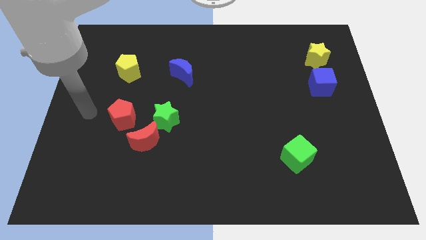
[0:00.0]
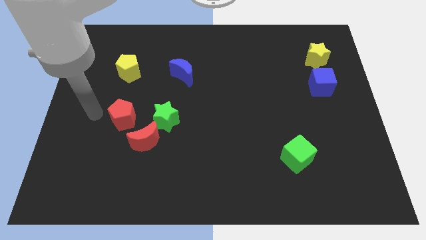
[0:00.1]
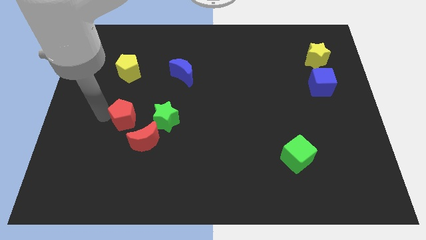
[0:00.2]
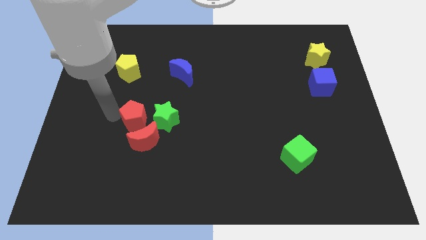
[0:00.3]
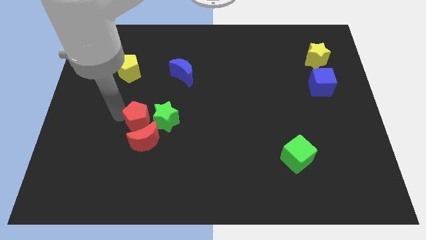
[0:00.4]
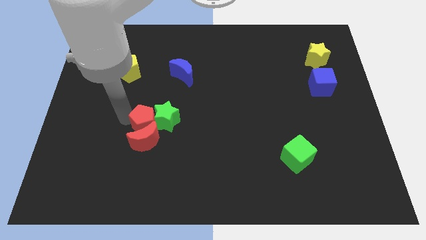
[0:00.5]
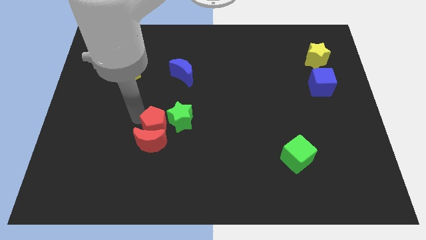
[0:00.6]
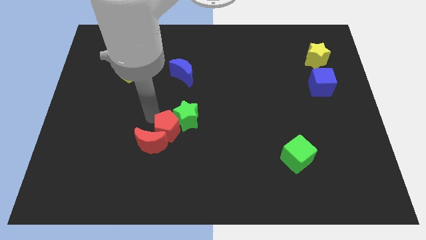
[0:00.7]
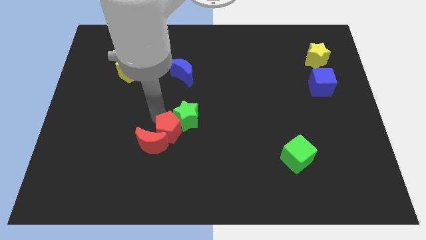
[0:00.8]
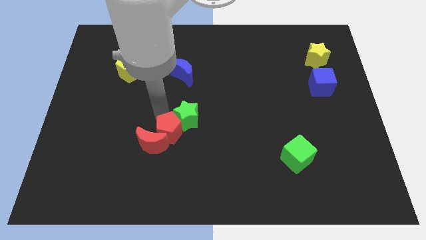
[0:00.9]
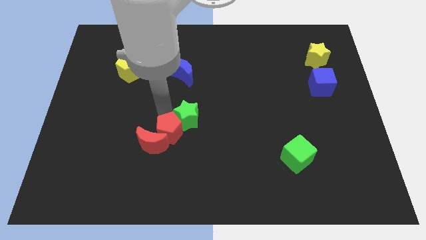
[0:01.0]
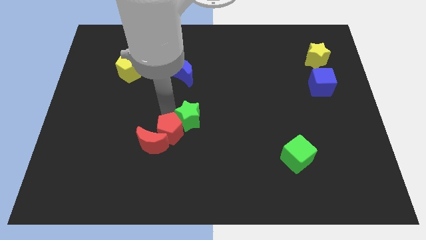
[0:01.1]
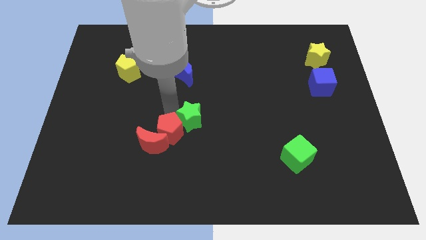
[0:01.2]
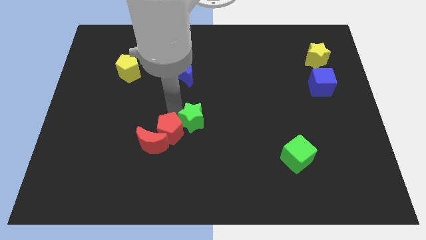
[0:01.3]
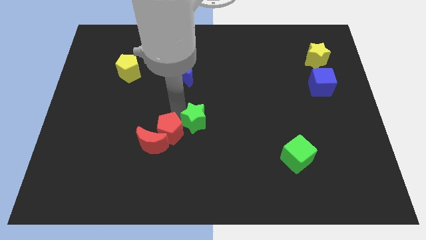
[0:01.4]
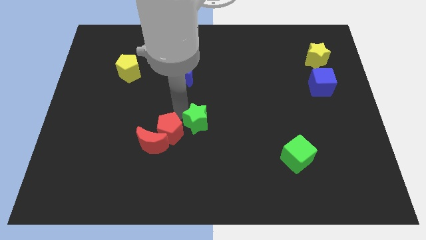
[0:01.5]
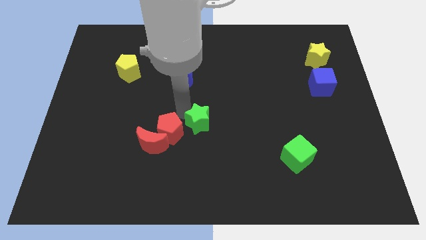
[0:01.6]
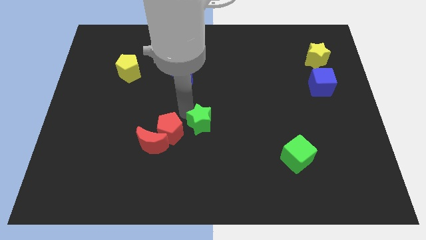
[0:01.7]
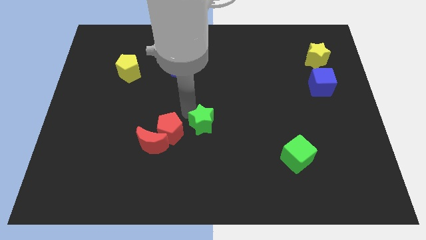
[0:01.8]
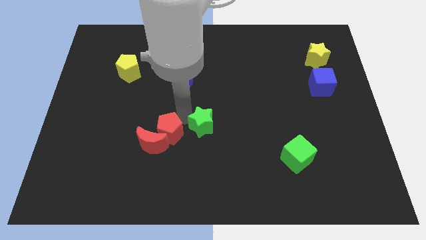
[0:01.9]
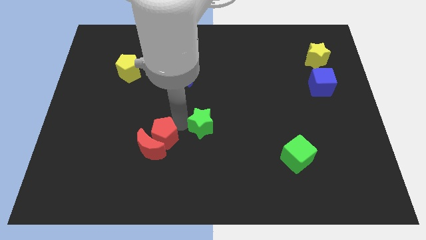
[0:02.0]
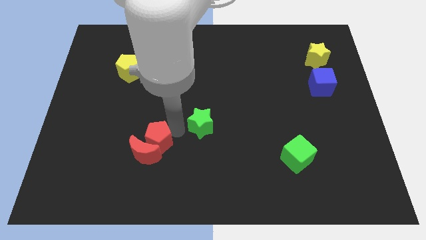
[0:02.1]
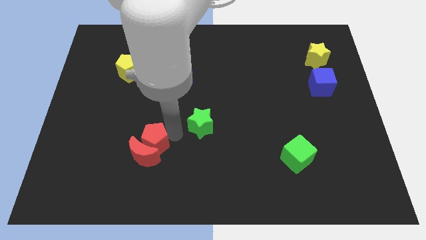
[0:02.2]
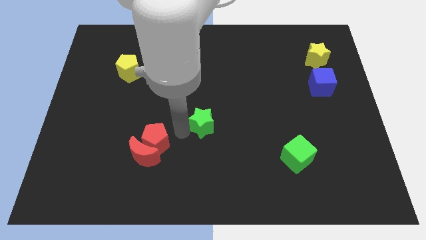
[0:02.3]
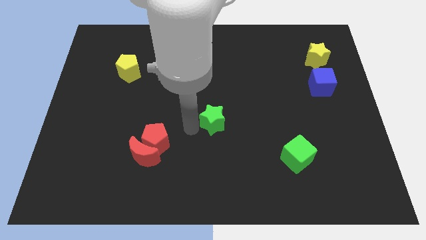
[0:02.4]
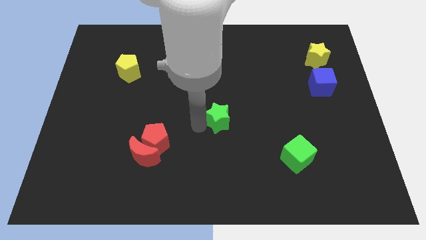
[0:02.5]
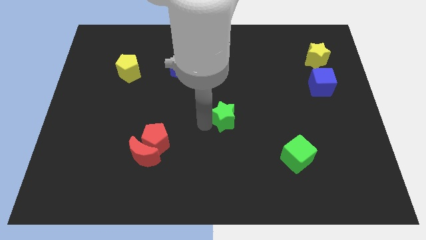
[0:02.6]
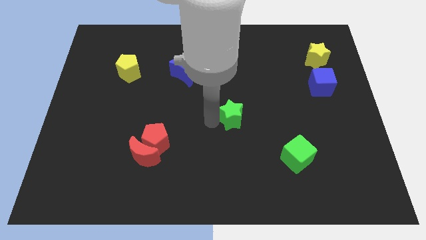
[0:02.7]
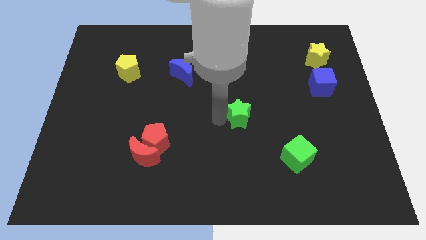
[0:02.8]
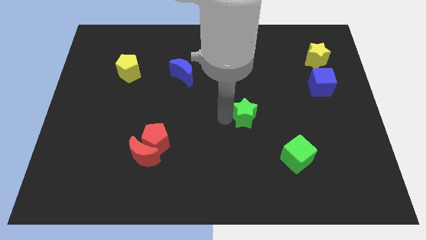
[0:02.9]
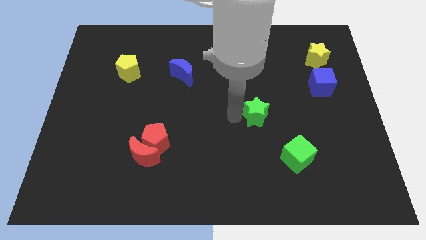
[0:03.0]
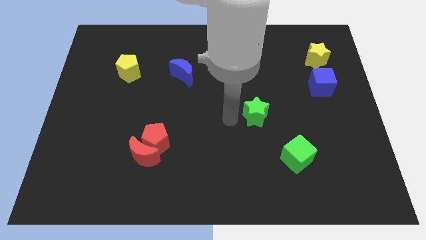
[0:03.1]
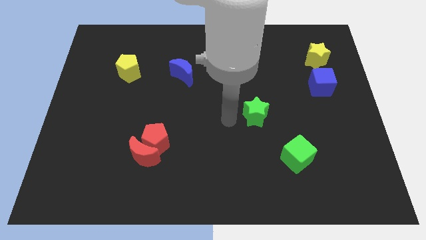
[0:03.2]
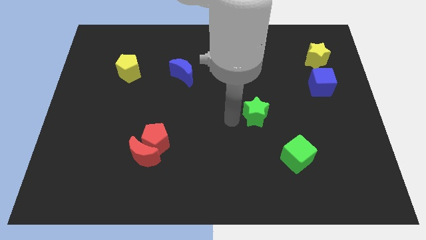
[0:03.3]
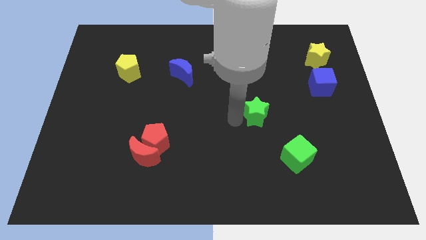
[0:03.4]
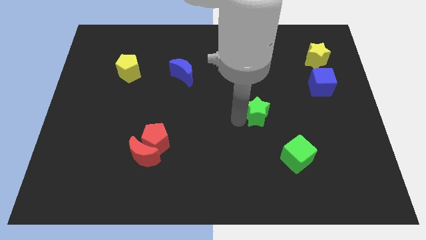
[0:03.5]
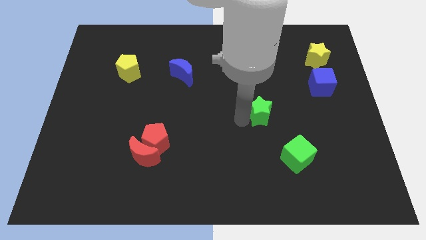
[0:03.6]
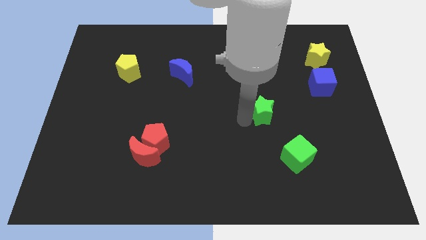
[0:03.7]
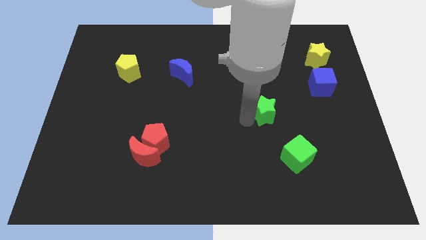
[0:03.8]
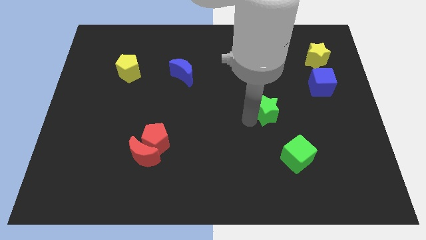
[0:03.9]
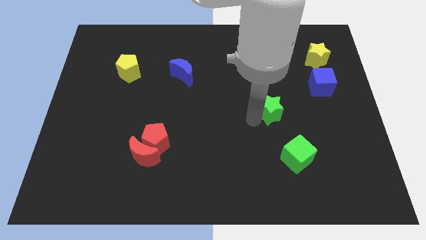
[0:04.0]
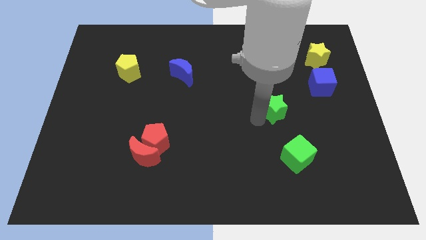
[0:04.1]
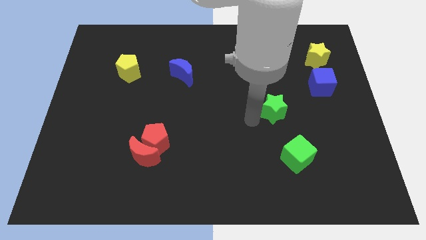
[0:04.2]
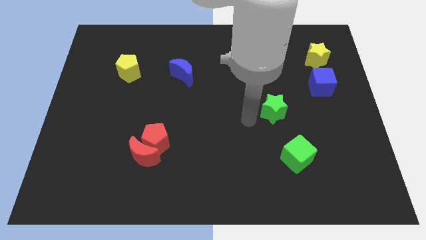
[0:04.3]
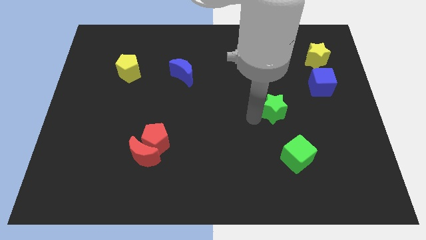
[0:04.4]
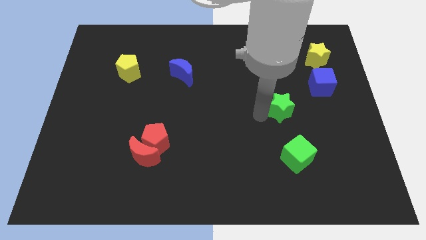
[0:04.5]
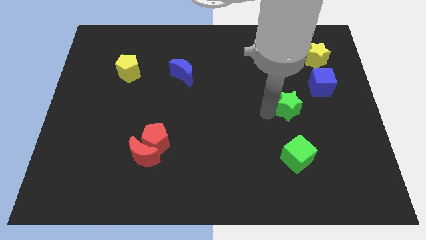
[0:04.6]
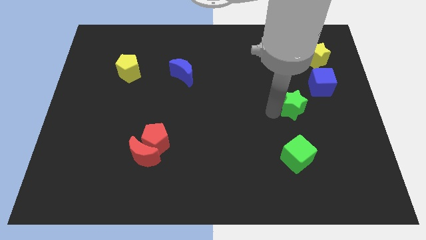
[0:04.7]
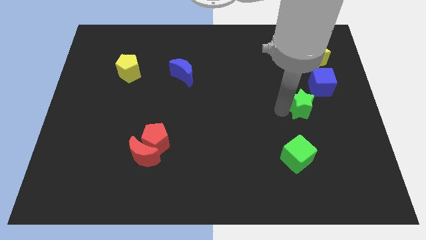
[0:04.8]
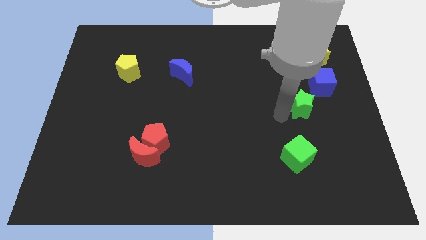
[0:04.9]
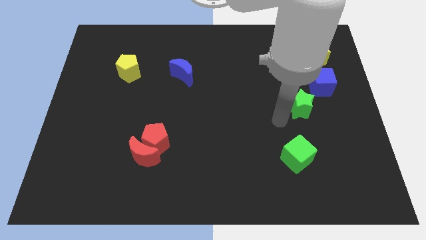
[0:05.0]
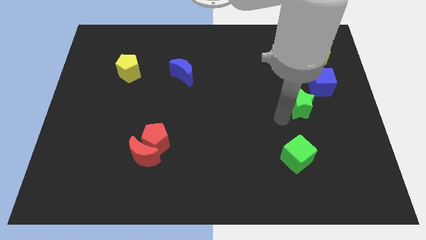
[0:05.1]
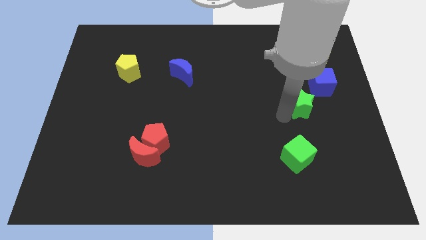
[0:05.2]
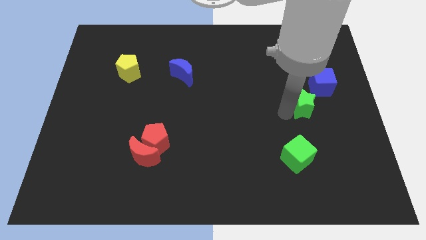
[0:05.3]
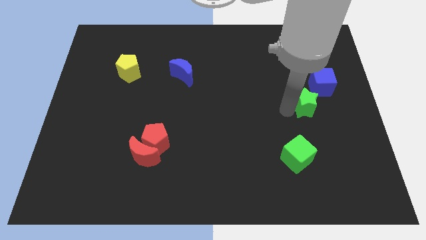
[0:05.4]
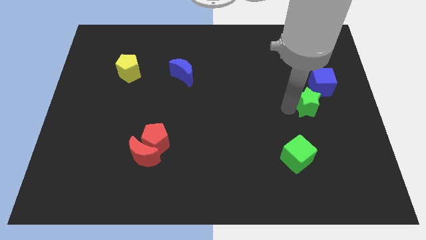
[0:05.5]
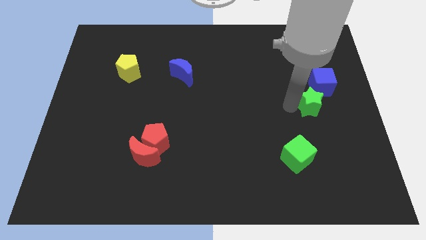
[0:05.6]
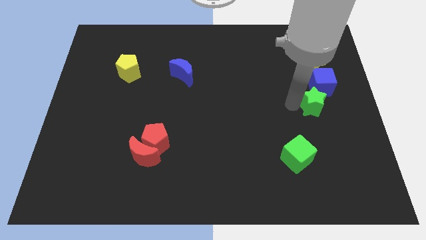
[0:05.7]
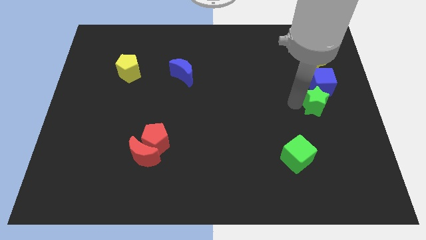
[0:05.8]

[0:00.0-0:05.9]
slide the green star to the bottom side of the yellow star

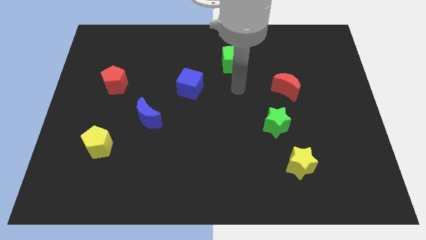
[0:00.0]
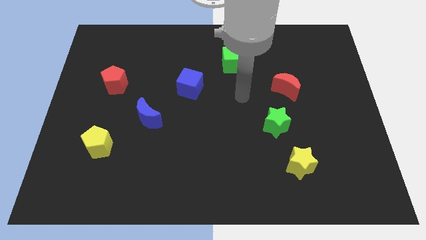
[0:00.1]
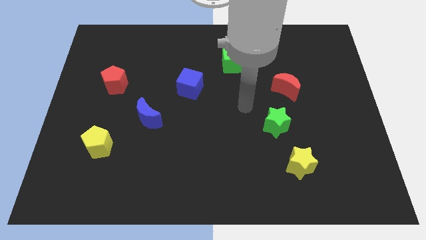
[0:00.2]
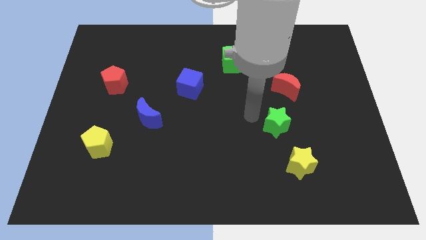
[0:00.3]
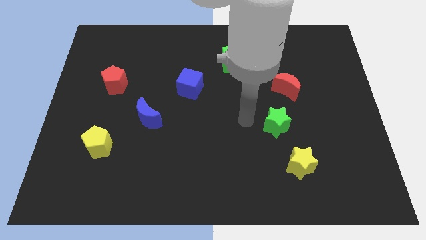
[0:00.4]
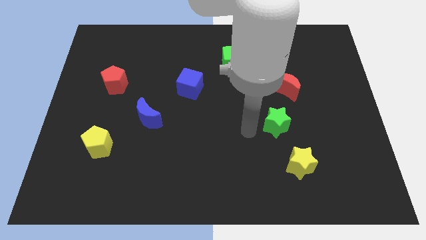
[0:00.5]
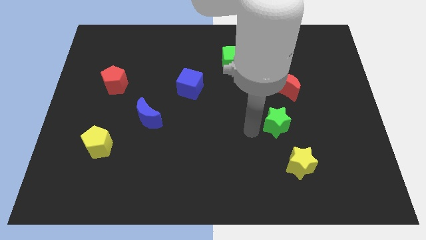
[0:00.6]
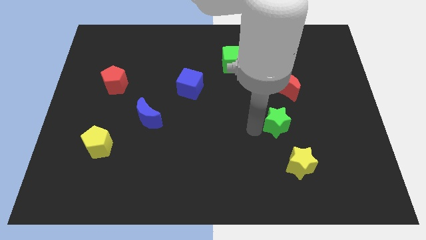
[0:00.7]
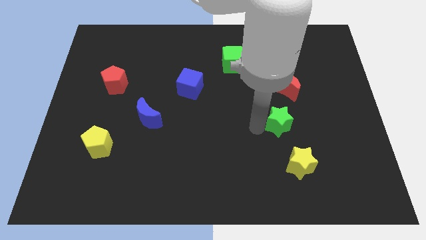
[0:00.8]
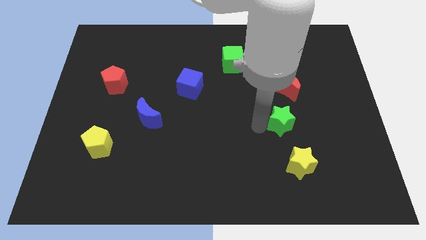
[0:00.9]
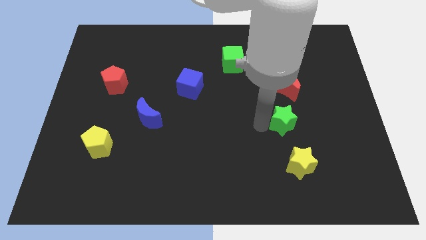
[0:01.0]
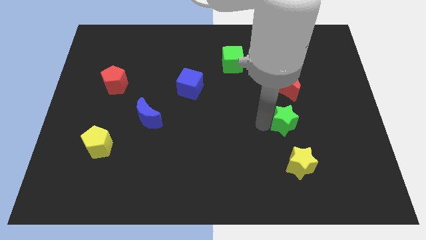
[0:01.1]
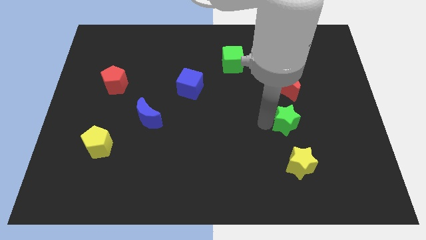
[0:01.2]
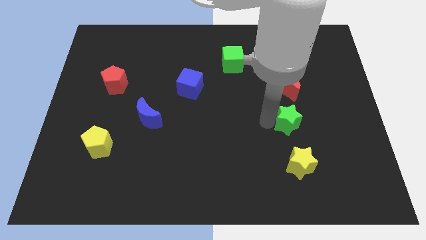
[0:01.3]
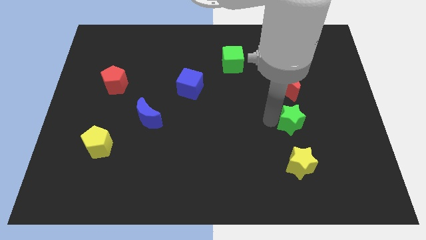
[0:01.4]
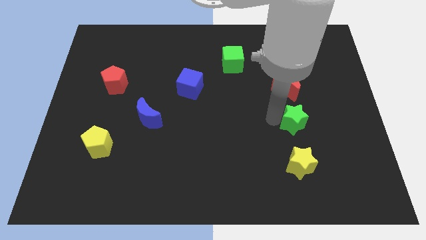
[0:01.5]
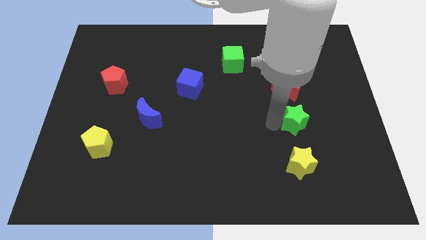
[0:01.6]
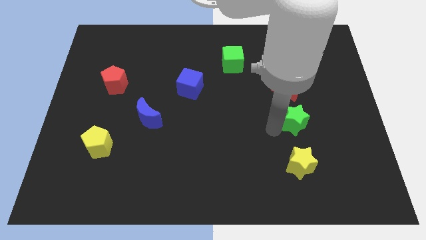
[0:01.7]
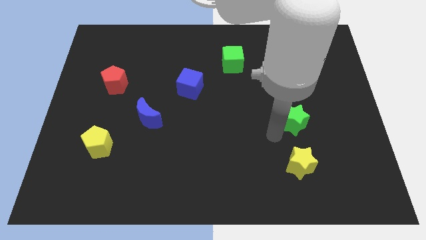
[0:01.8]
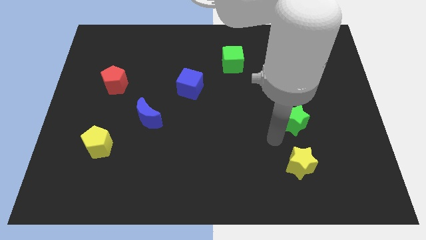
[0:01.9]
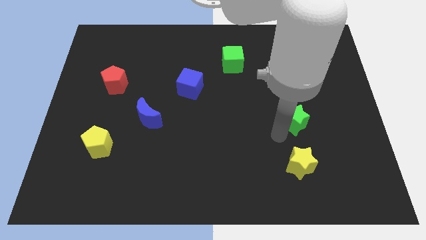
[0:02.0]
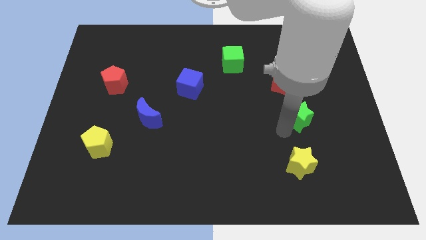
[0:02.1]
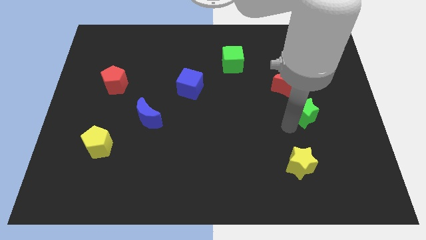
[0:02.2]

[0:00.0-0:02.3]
push the green star to the bottom right of the red moon
